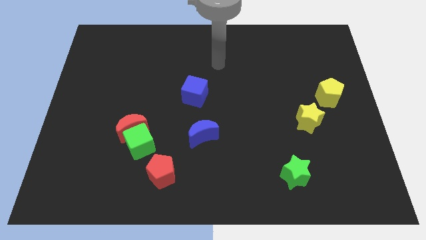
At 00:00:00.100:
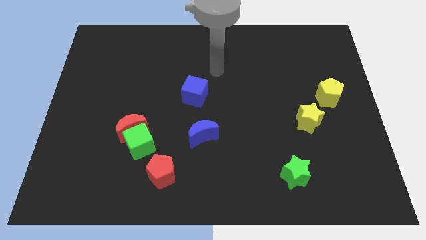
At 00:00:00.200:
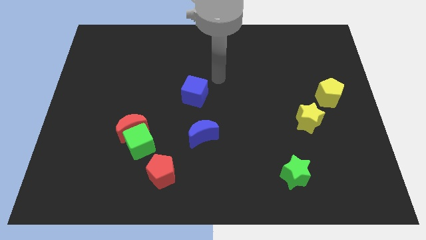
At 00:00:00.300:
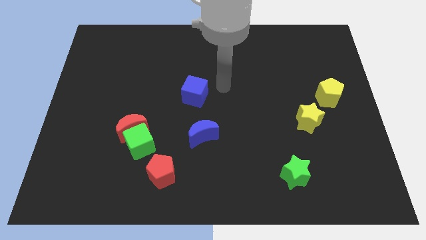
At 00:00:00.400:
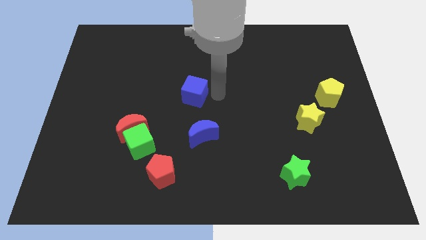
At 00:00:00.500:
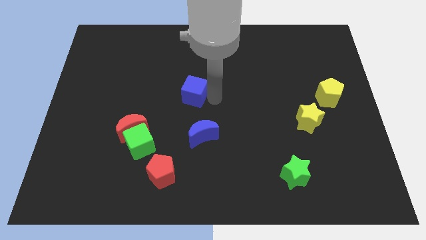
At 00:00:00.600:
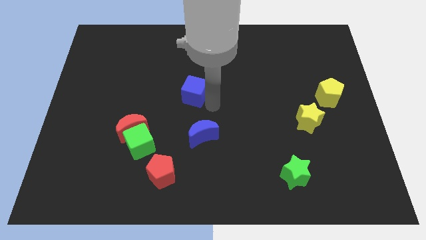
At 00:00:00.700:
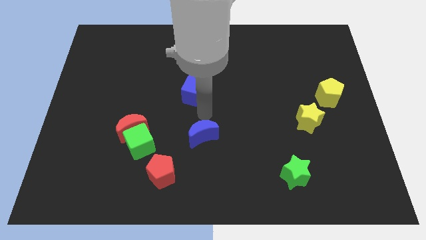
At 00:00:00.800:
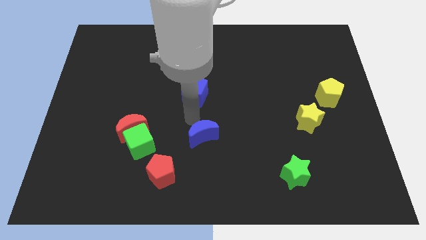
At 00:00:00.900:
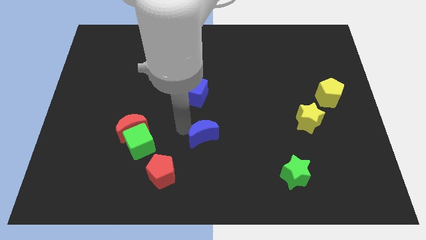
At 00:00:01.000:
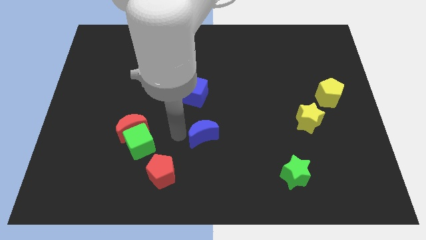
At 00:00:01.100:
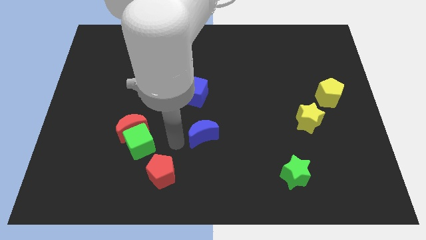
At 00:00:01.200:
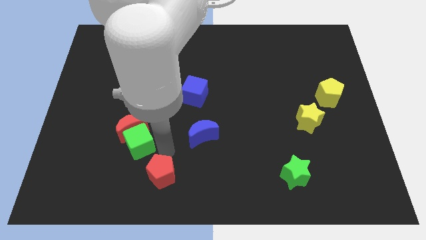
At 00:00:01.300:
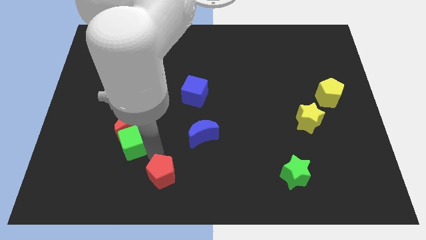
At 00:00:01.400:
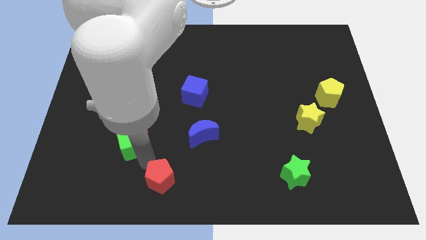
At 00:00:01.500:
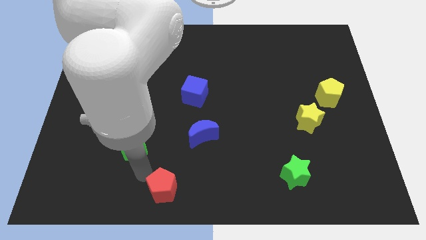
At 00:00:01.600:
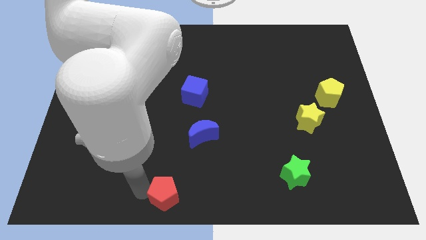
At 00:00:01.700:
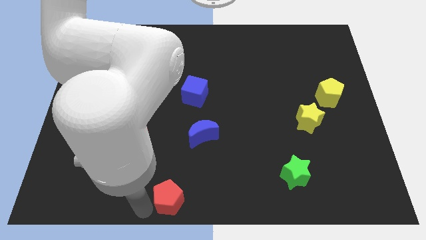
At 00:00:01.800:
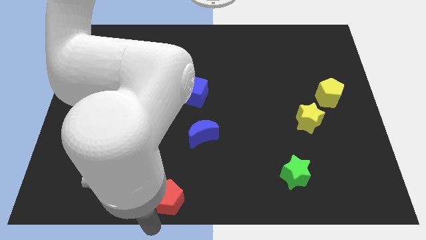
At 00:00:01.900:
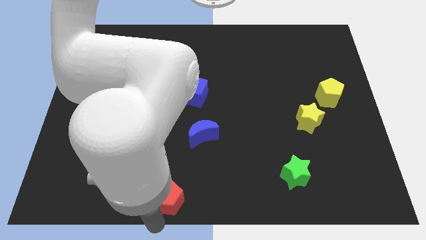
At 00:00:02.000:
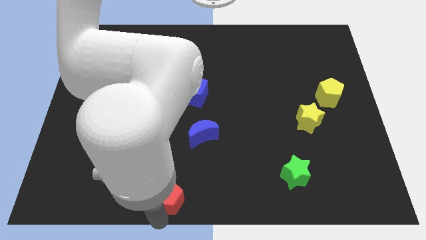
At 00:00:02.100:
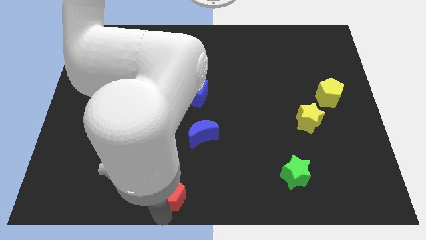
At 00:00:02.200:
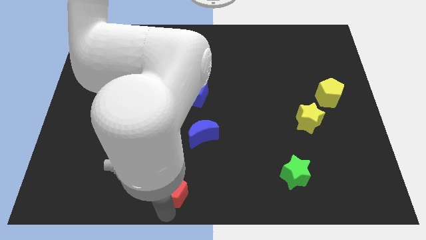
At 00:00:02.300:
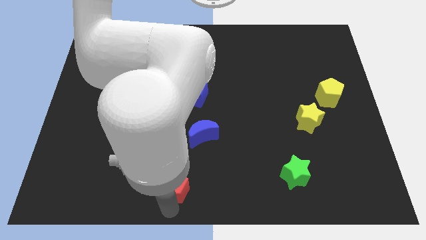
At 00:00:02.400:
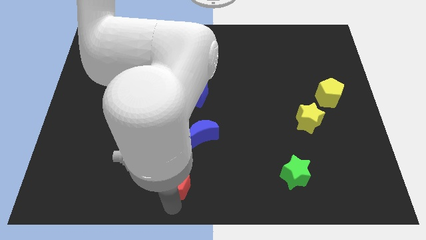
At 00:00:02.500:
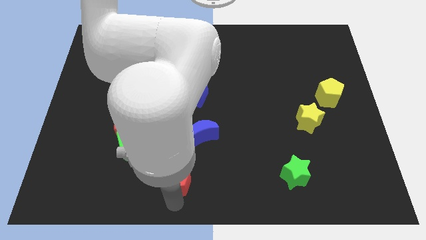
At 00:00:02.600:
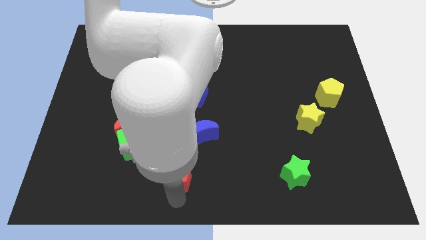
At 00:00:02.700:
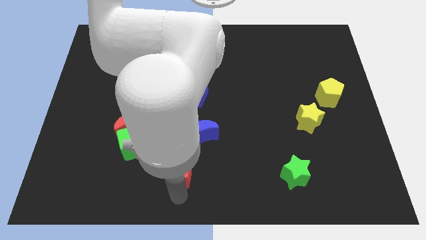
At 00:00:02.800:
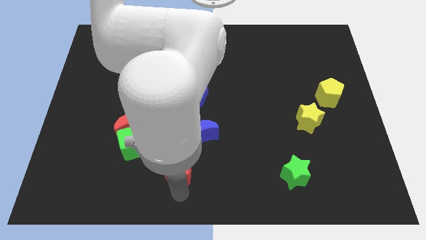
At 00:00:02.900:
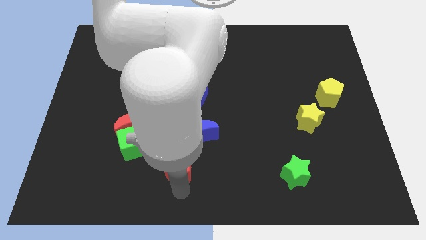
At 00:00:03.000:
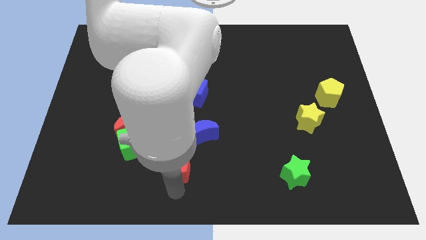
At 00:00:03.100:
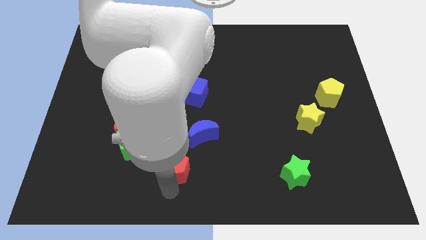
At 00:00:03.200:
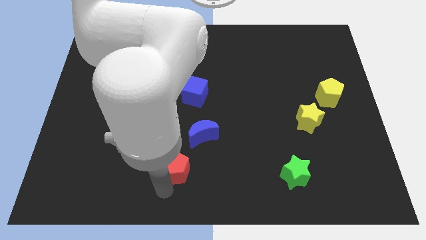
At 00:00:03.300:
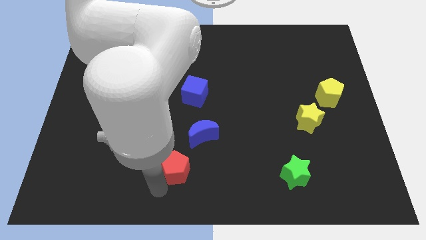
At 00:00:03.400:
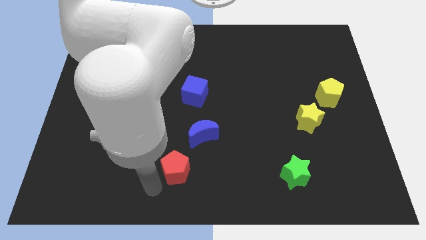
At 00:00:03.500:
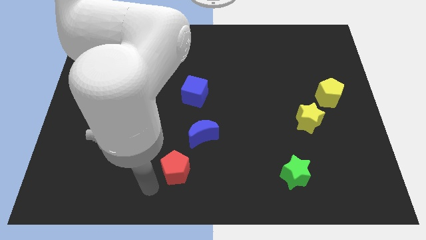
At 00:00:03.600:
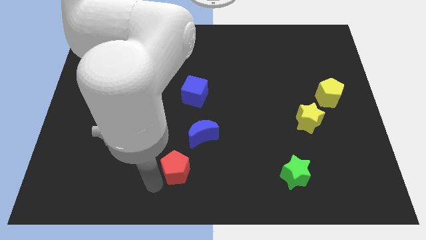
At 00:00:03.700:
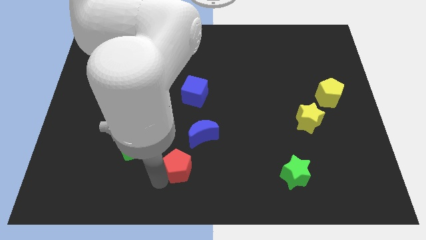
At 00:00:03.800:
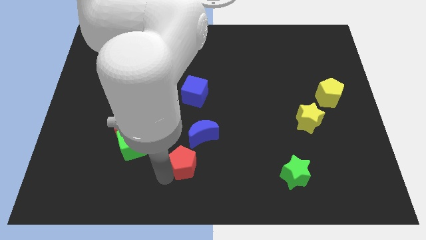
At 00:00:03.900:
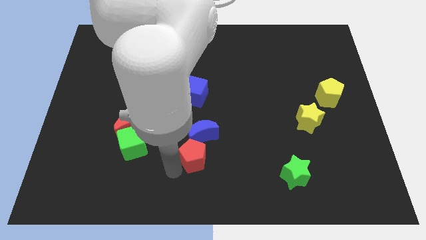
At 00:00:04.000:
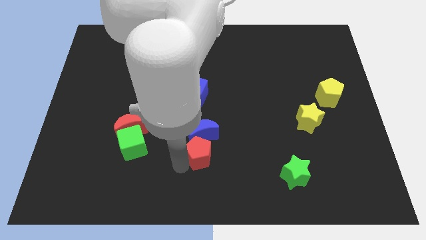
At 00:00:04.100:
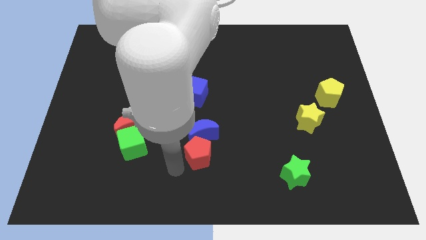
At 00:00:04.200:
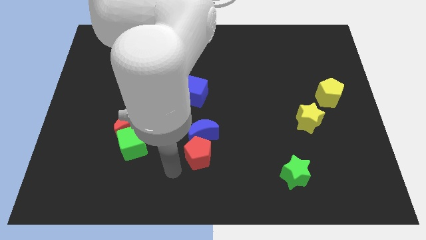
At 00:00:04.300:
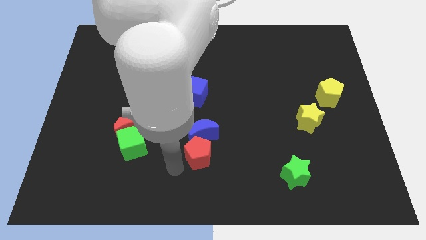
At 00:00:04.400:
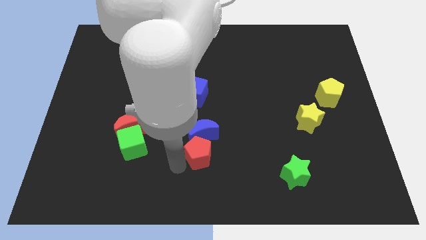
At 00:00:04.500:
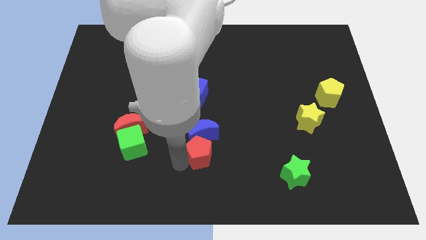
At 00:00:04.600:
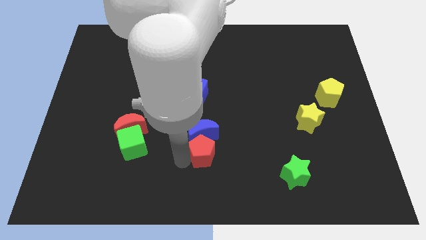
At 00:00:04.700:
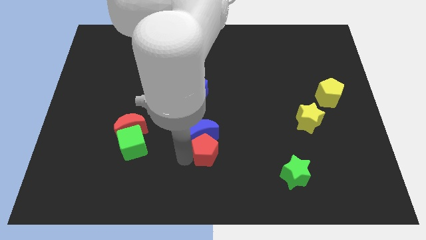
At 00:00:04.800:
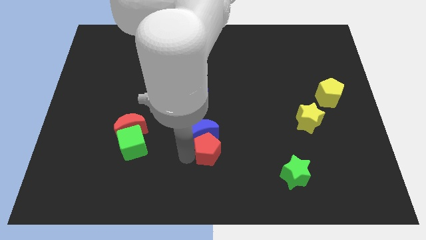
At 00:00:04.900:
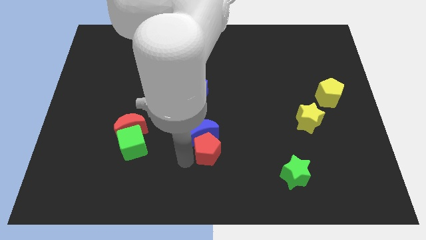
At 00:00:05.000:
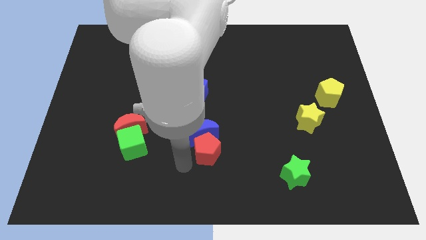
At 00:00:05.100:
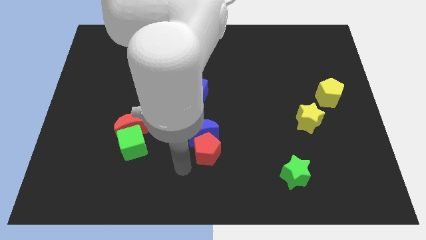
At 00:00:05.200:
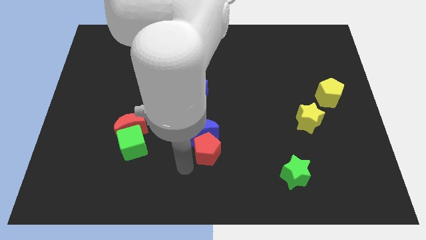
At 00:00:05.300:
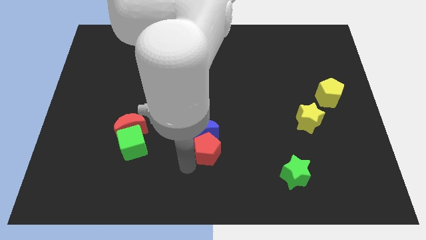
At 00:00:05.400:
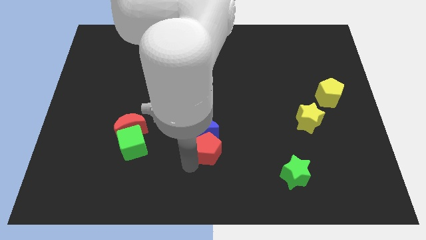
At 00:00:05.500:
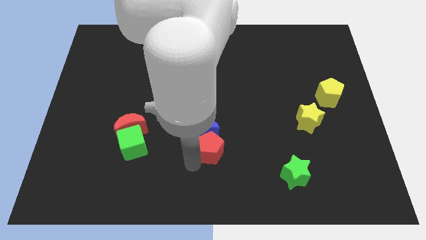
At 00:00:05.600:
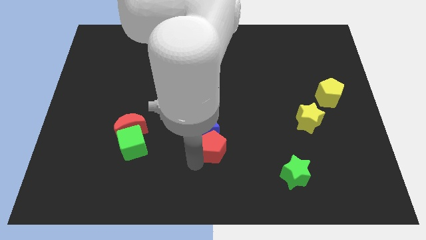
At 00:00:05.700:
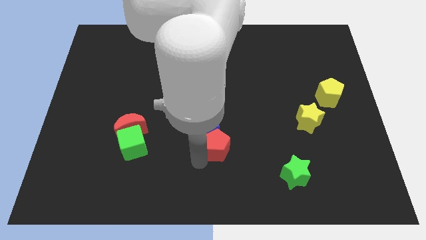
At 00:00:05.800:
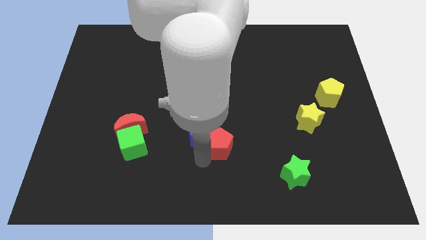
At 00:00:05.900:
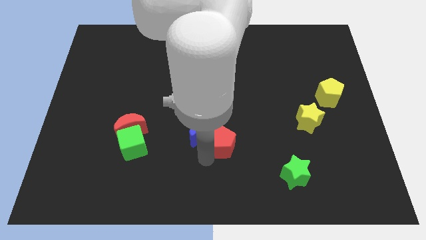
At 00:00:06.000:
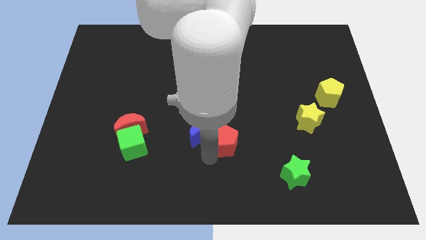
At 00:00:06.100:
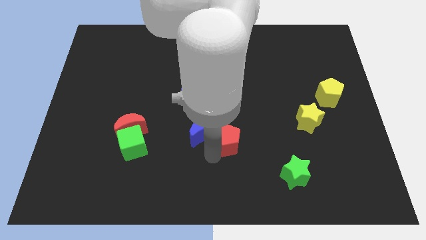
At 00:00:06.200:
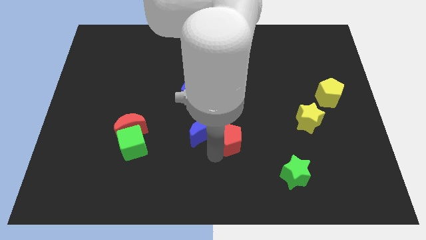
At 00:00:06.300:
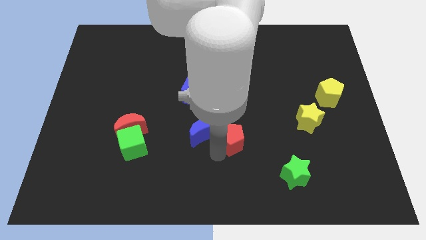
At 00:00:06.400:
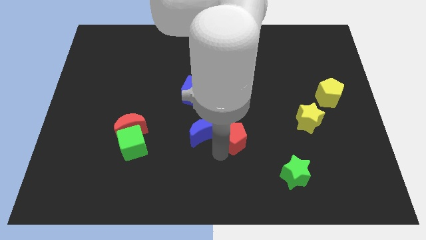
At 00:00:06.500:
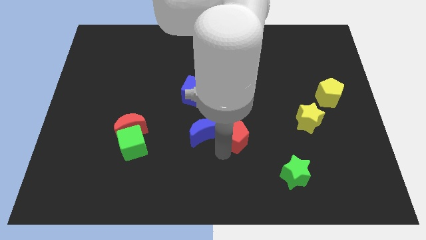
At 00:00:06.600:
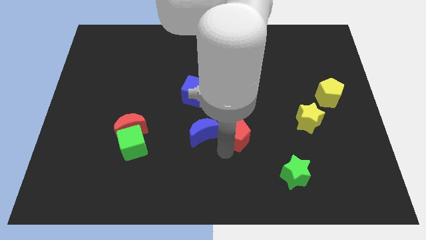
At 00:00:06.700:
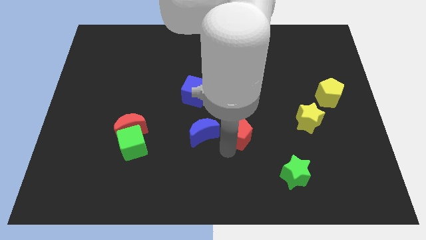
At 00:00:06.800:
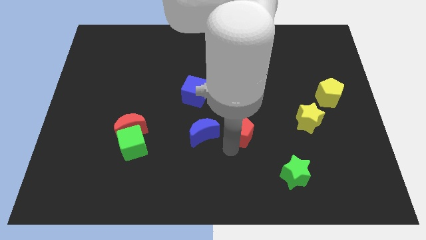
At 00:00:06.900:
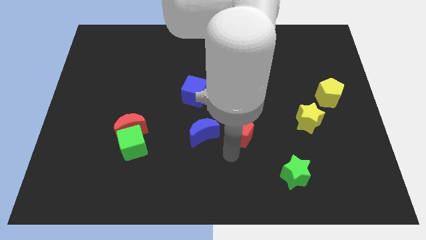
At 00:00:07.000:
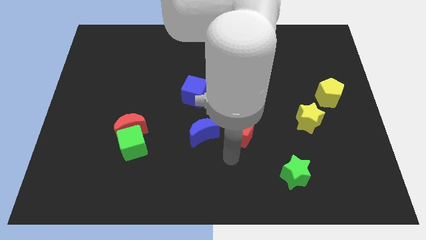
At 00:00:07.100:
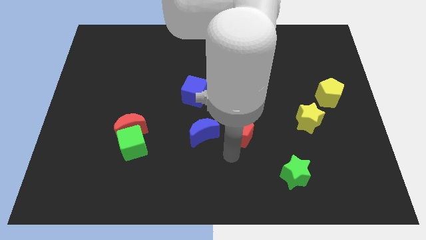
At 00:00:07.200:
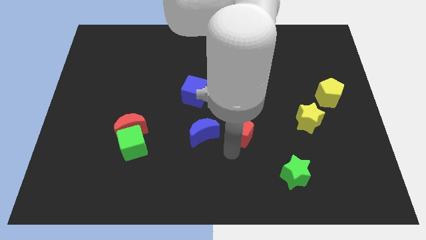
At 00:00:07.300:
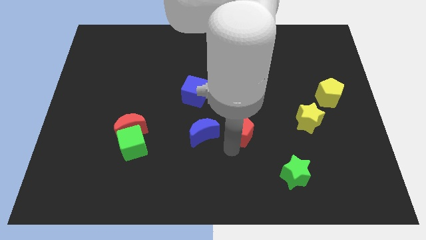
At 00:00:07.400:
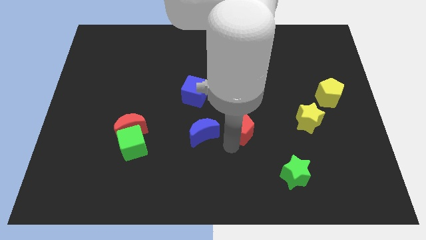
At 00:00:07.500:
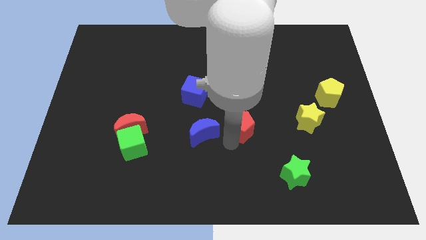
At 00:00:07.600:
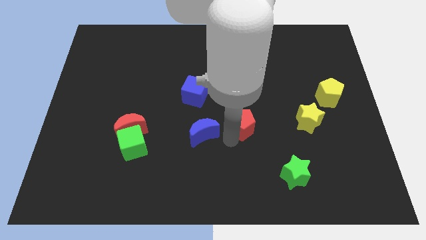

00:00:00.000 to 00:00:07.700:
move the red pentagon up and right
